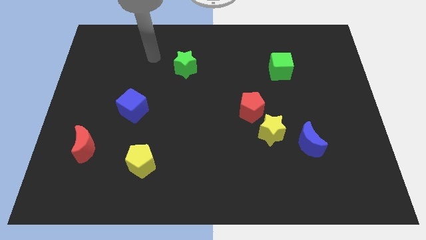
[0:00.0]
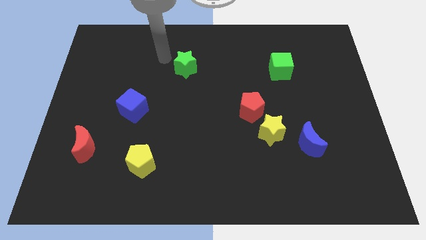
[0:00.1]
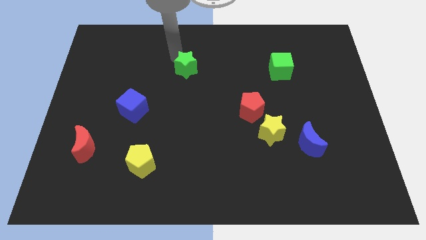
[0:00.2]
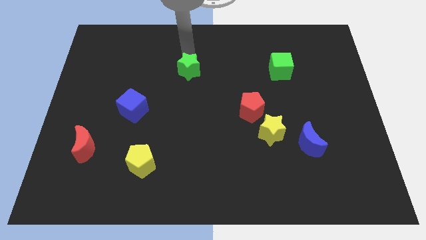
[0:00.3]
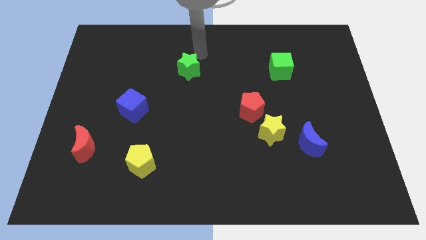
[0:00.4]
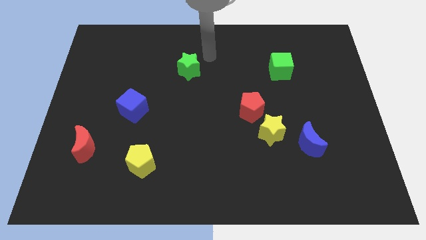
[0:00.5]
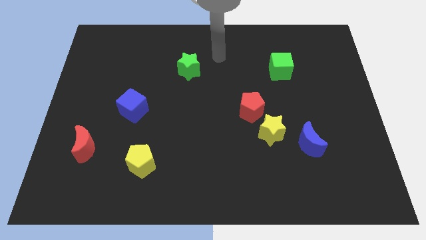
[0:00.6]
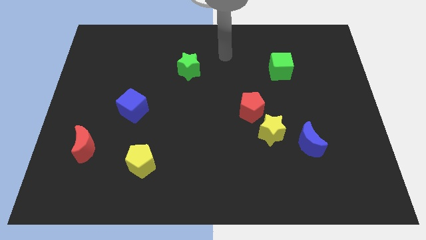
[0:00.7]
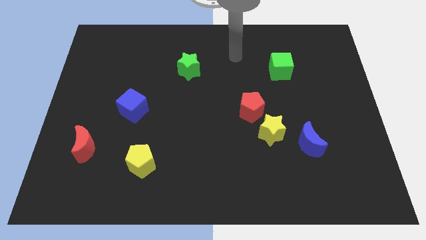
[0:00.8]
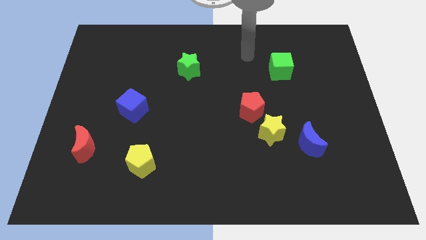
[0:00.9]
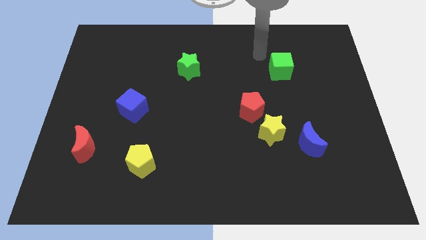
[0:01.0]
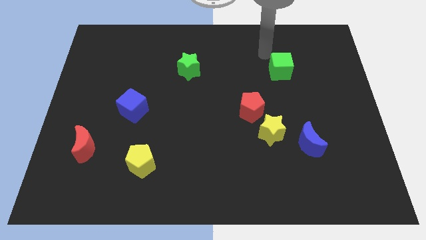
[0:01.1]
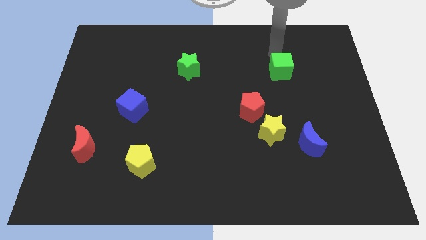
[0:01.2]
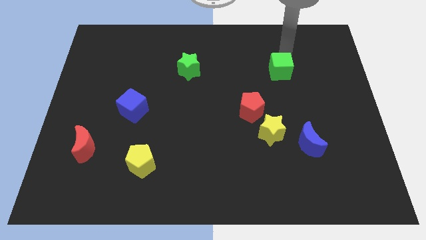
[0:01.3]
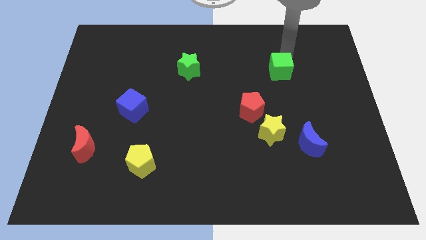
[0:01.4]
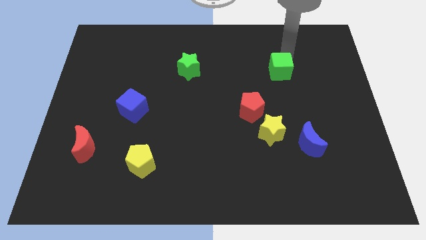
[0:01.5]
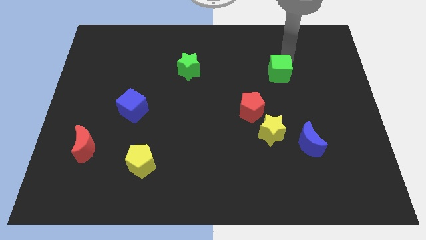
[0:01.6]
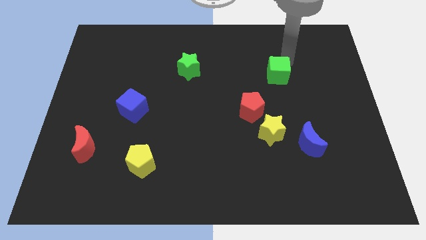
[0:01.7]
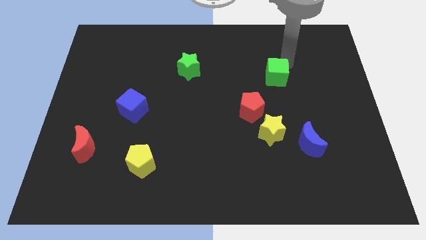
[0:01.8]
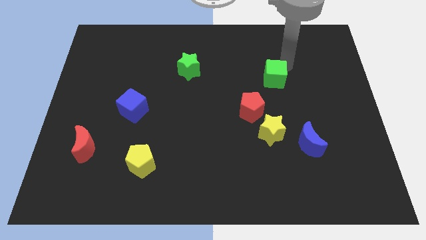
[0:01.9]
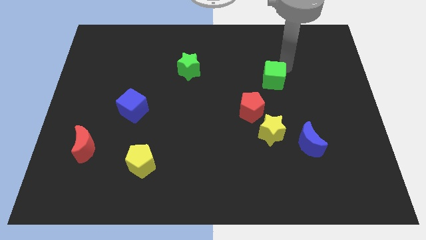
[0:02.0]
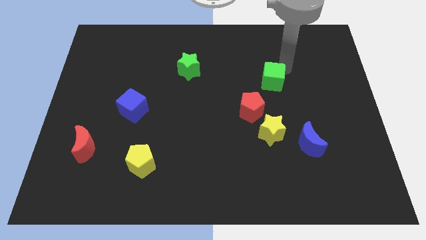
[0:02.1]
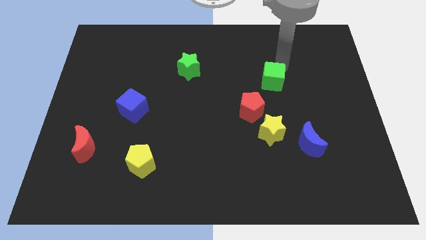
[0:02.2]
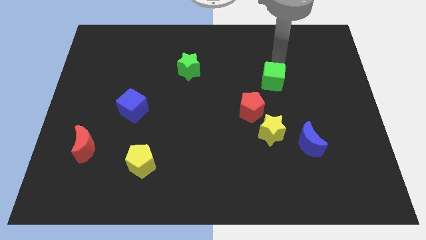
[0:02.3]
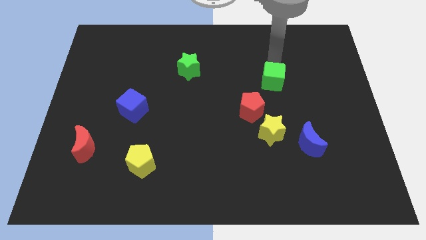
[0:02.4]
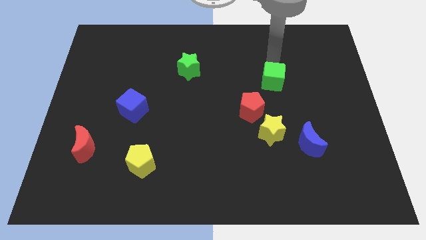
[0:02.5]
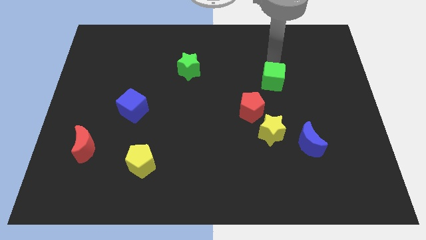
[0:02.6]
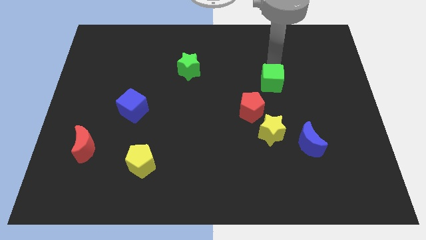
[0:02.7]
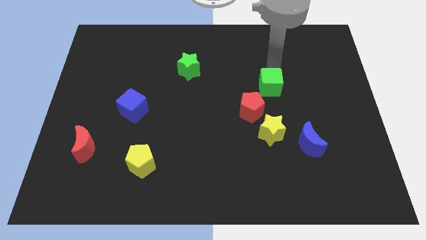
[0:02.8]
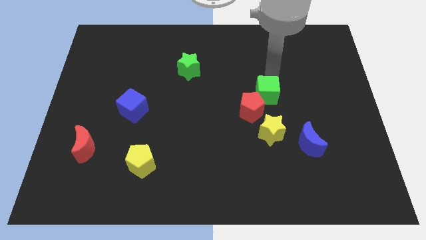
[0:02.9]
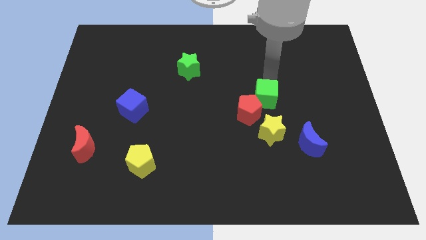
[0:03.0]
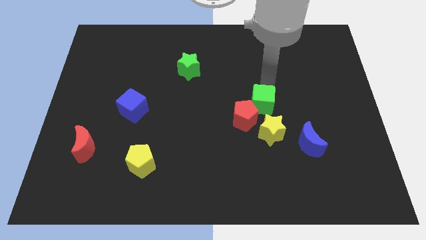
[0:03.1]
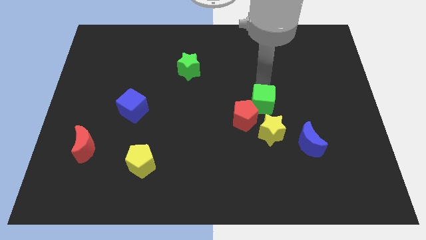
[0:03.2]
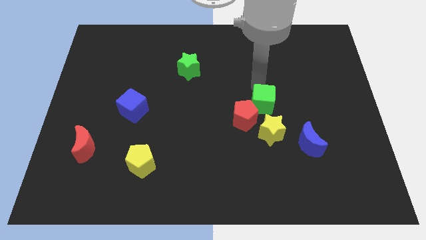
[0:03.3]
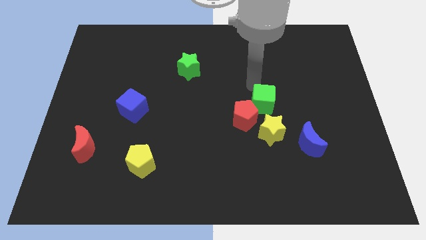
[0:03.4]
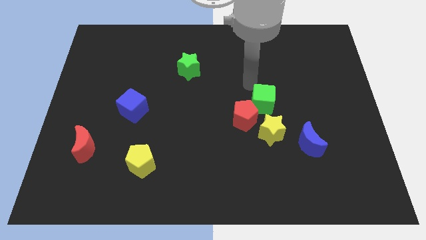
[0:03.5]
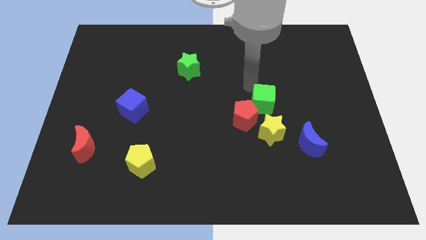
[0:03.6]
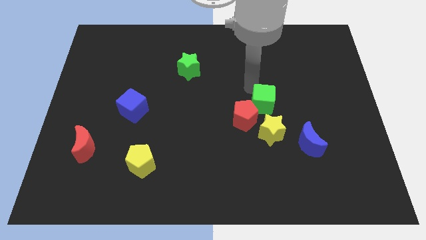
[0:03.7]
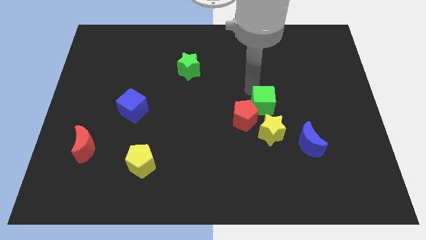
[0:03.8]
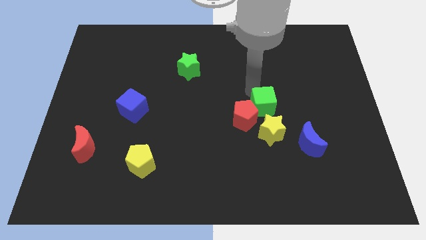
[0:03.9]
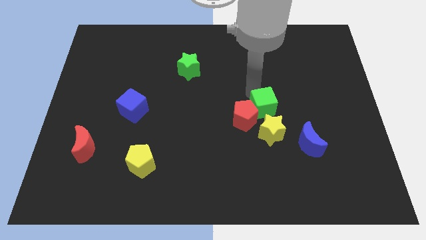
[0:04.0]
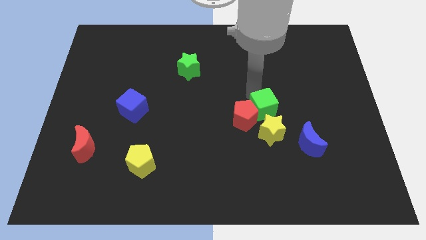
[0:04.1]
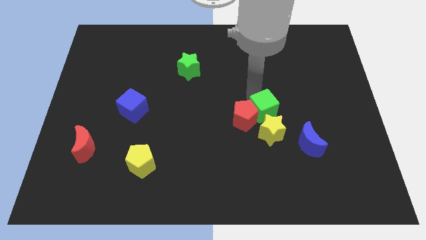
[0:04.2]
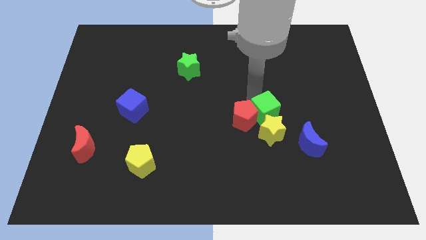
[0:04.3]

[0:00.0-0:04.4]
move the green cube to the yellow star

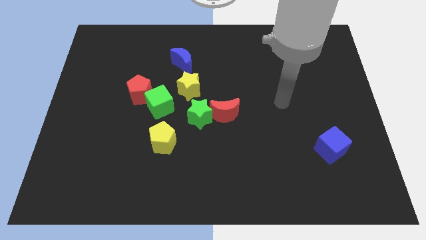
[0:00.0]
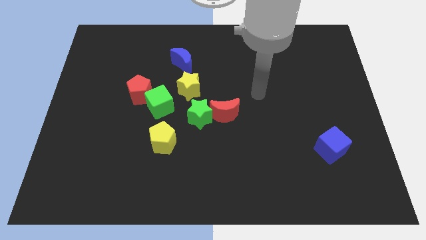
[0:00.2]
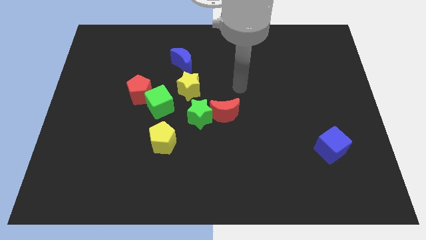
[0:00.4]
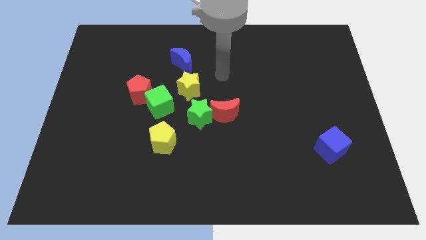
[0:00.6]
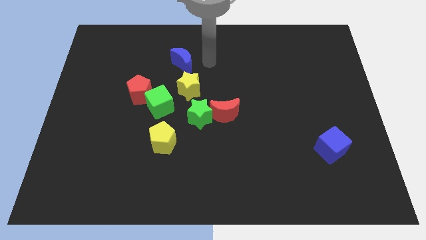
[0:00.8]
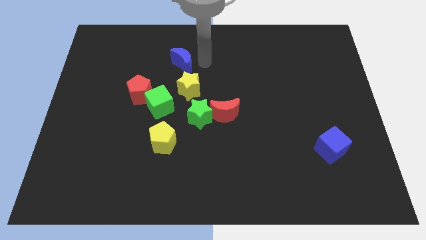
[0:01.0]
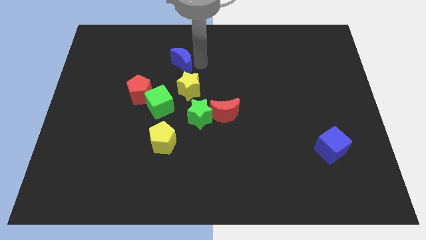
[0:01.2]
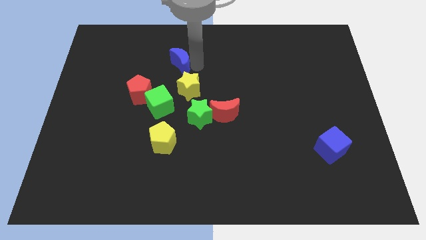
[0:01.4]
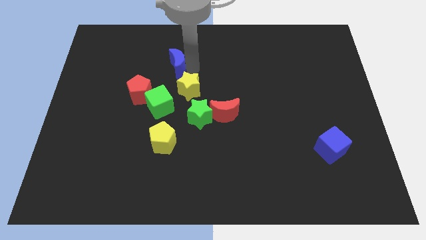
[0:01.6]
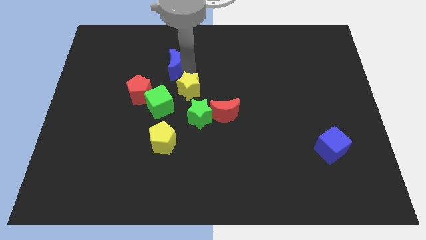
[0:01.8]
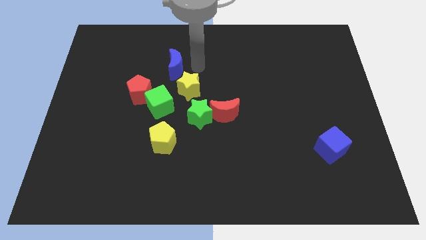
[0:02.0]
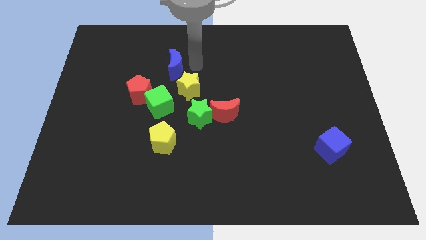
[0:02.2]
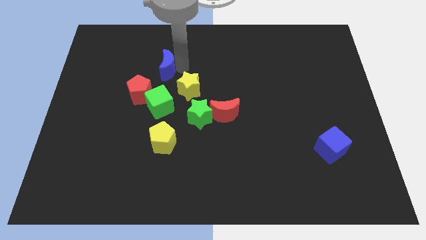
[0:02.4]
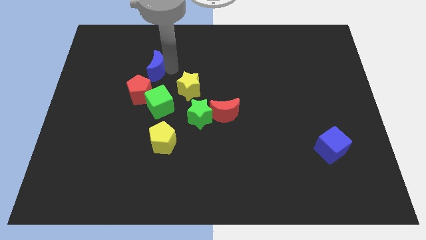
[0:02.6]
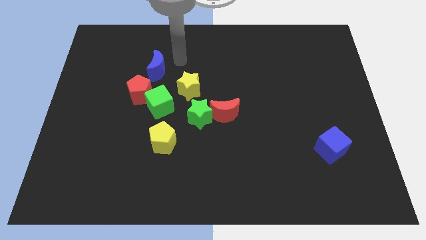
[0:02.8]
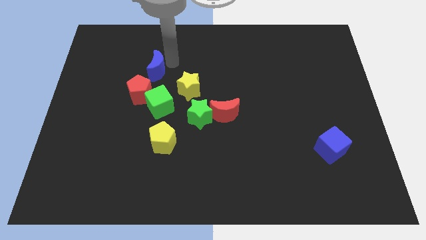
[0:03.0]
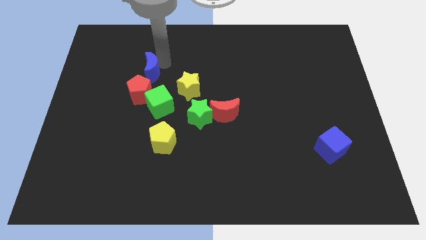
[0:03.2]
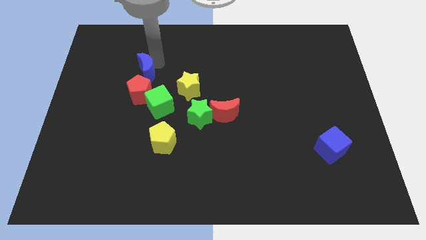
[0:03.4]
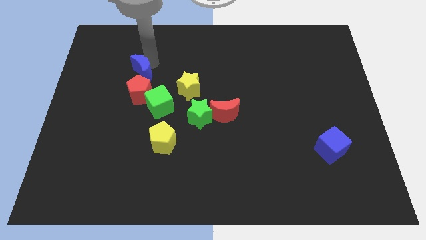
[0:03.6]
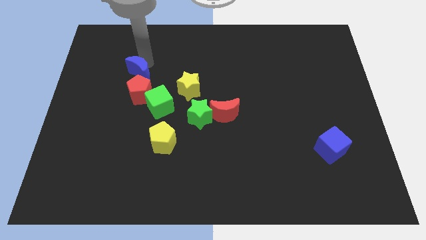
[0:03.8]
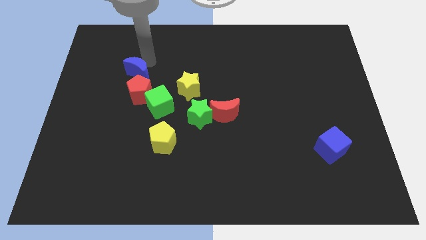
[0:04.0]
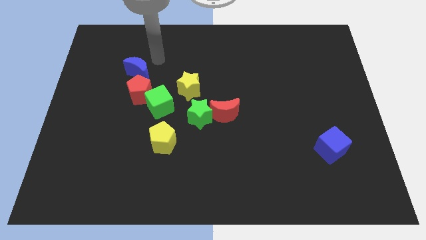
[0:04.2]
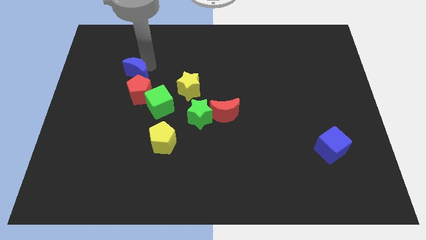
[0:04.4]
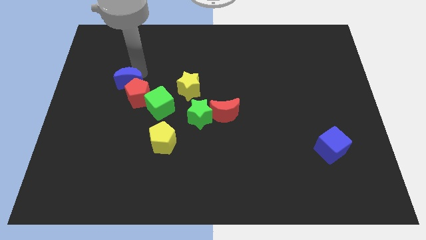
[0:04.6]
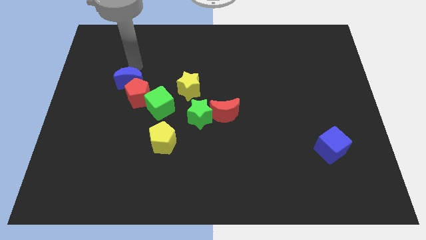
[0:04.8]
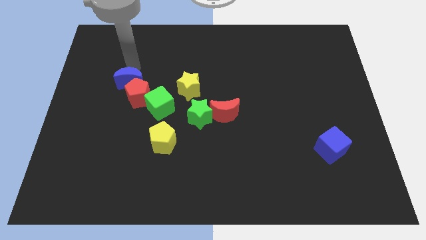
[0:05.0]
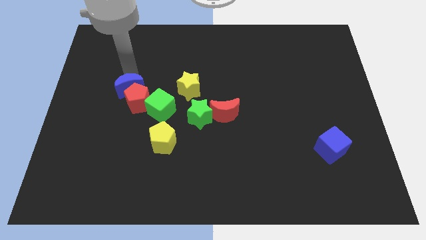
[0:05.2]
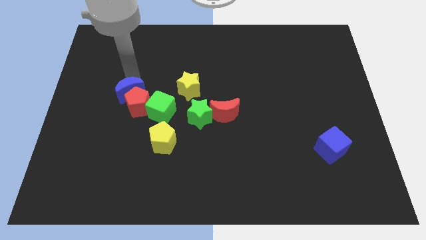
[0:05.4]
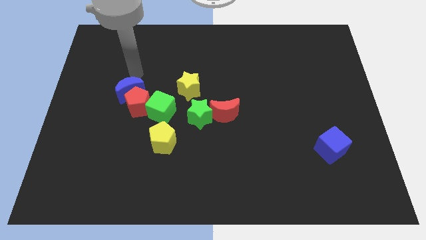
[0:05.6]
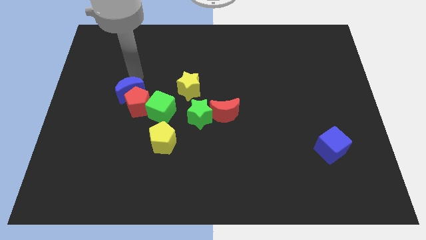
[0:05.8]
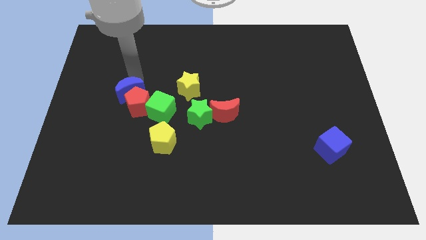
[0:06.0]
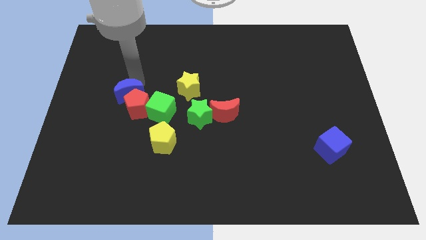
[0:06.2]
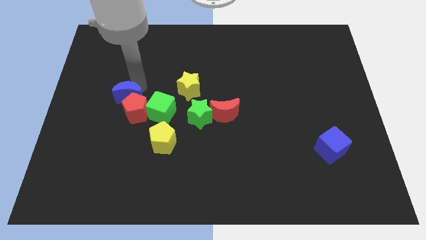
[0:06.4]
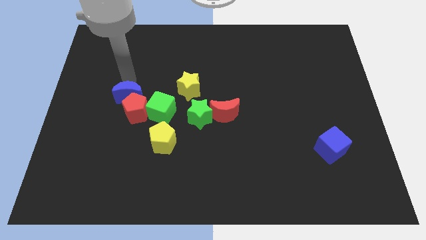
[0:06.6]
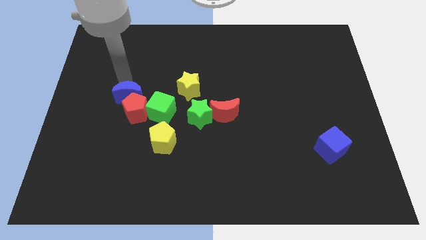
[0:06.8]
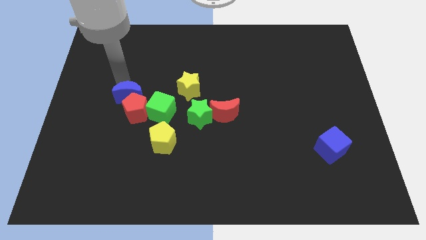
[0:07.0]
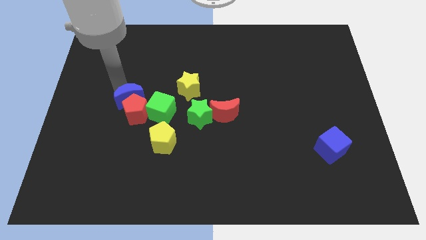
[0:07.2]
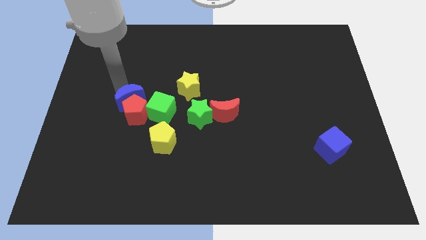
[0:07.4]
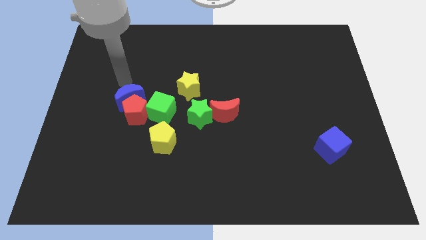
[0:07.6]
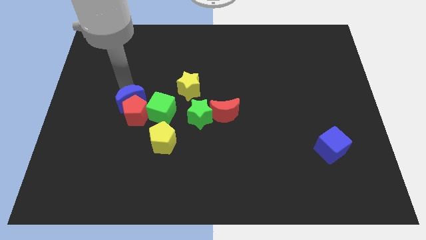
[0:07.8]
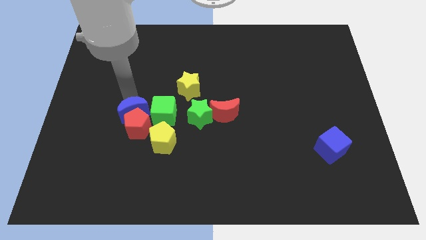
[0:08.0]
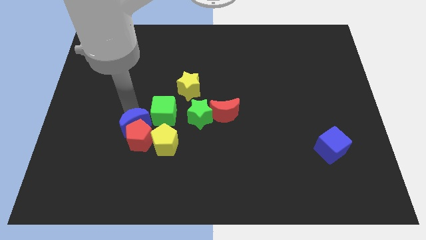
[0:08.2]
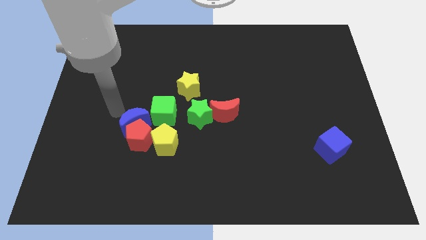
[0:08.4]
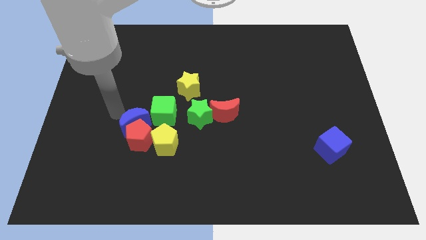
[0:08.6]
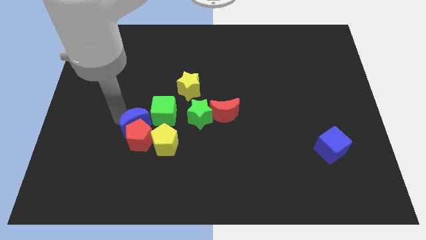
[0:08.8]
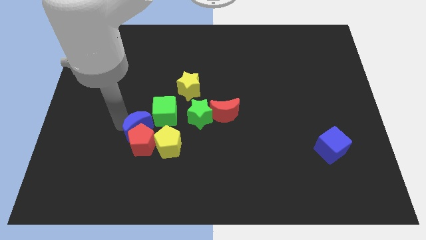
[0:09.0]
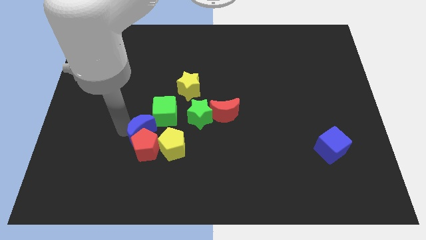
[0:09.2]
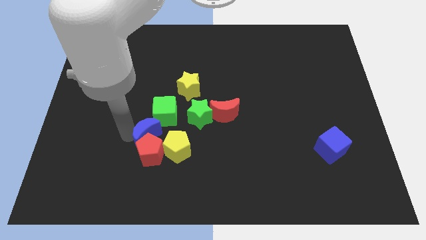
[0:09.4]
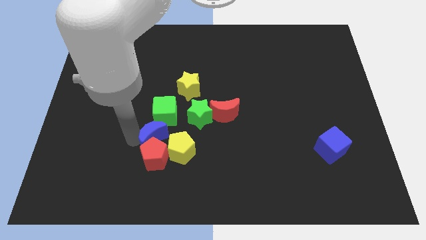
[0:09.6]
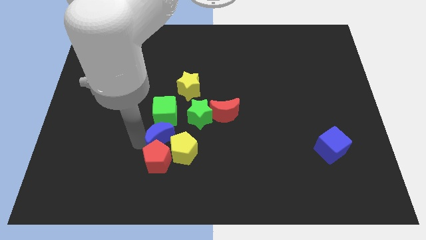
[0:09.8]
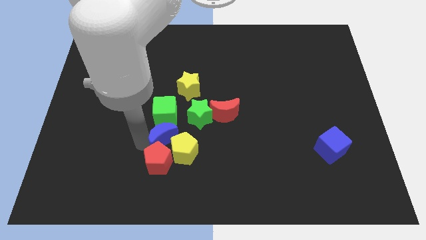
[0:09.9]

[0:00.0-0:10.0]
move the blue moon close to the yellow pentagon
